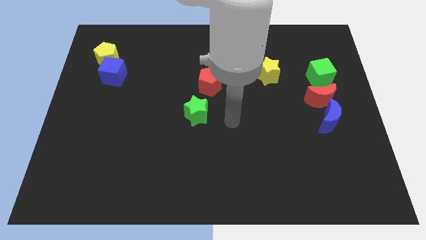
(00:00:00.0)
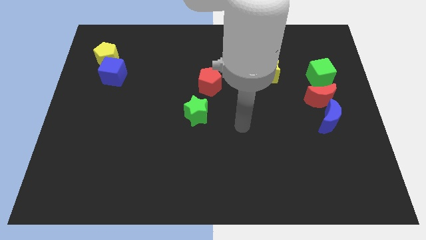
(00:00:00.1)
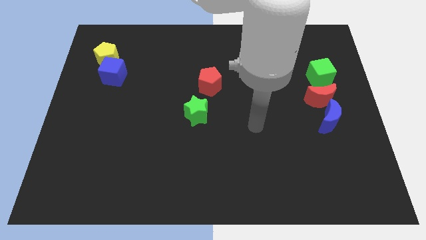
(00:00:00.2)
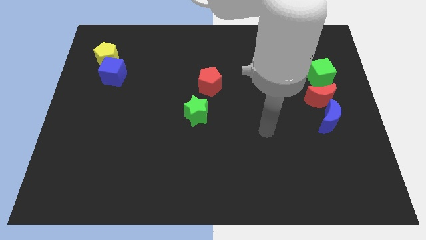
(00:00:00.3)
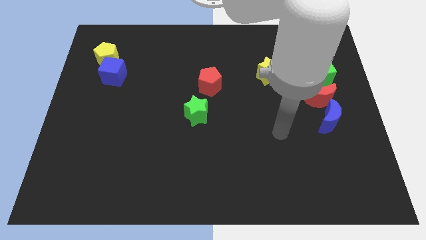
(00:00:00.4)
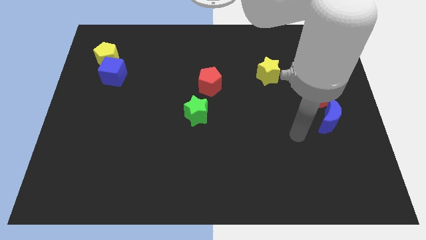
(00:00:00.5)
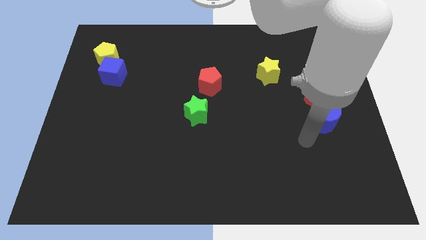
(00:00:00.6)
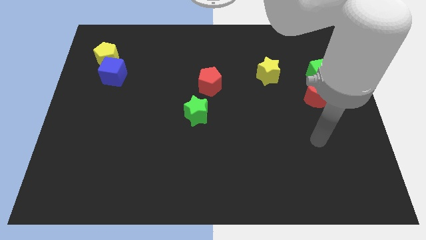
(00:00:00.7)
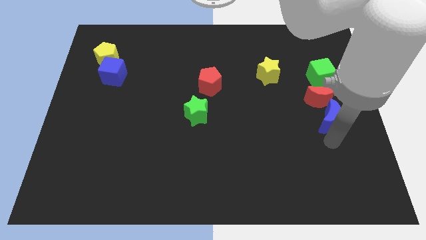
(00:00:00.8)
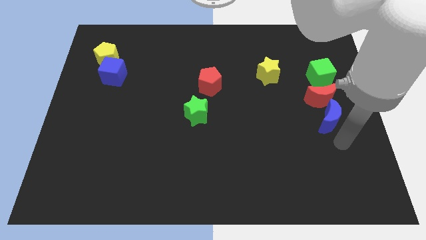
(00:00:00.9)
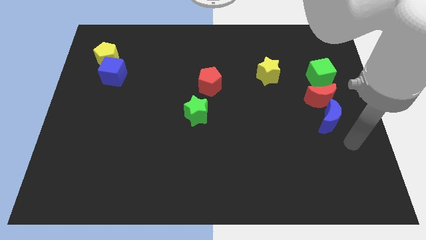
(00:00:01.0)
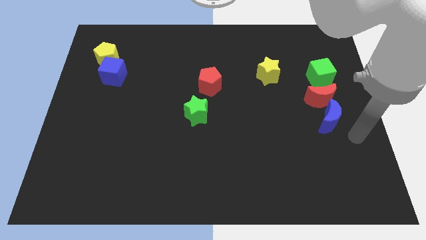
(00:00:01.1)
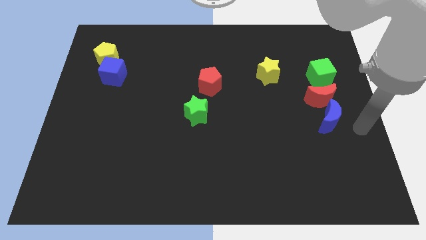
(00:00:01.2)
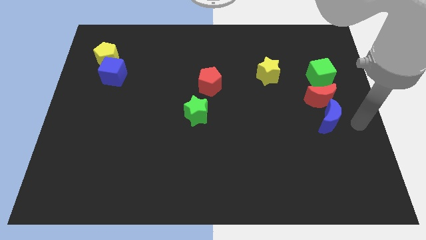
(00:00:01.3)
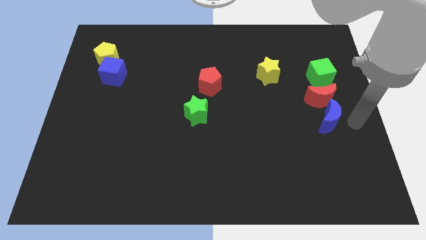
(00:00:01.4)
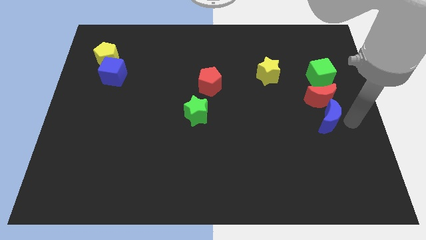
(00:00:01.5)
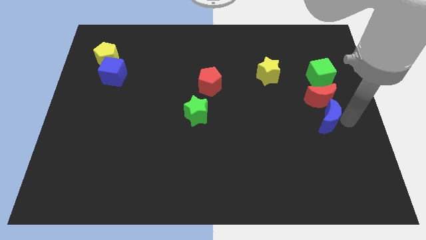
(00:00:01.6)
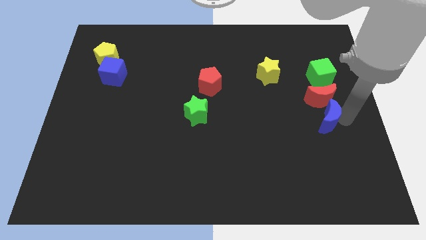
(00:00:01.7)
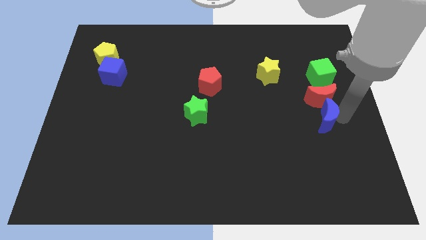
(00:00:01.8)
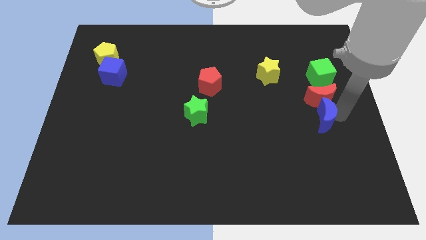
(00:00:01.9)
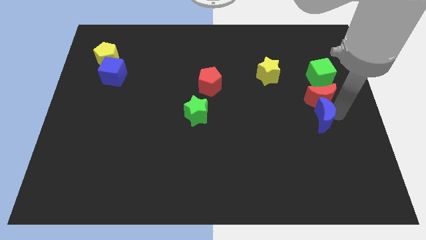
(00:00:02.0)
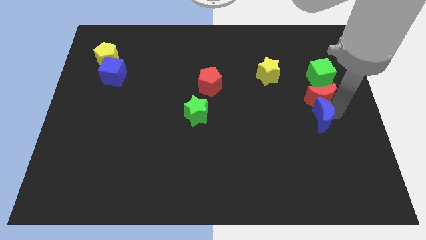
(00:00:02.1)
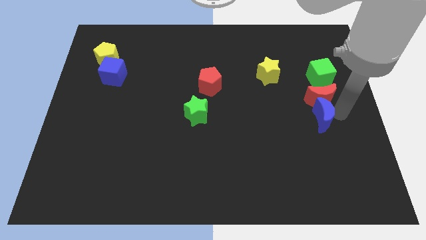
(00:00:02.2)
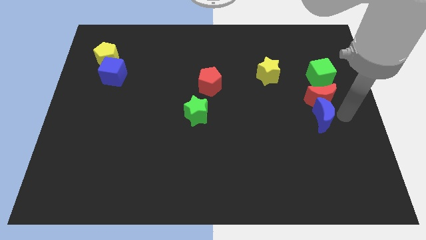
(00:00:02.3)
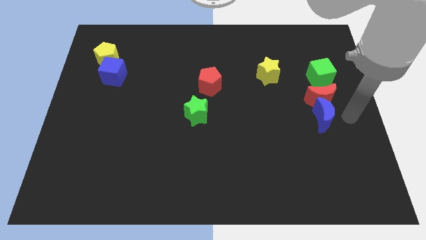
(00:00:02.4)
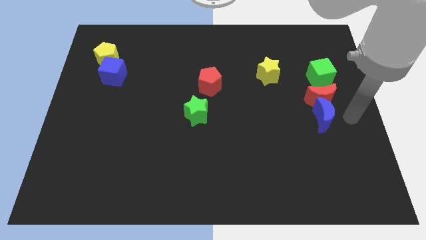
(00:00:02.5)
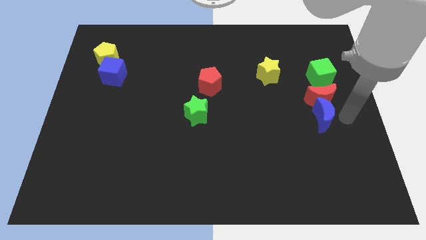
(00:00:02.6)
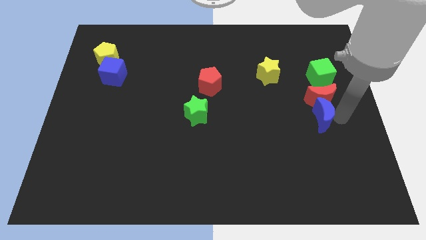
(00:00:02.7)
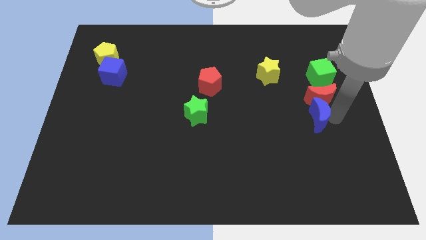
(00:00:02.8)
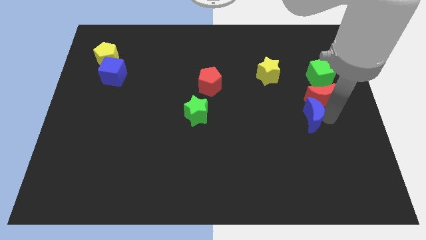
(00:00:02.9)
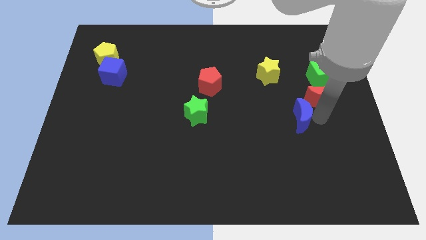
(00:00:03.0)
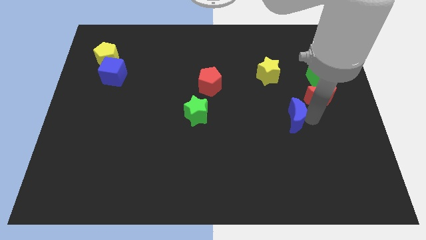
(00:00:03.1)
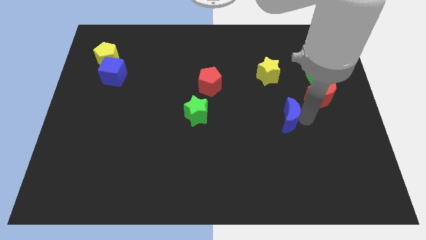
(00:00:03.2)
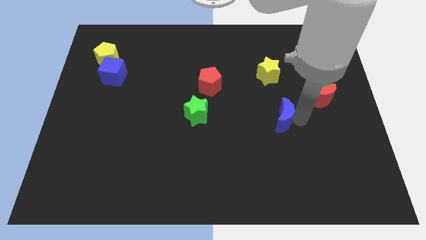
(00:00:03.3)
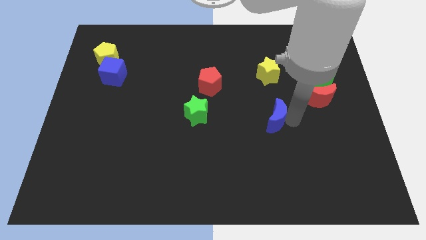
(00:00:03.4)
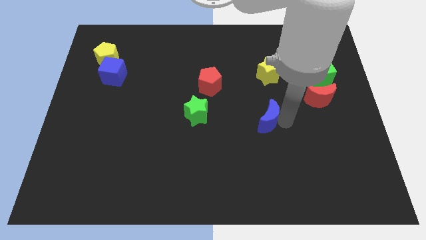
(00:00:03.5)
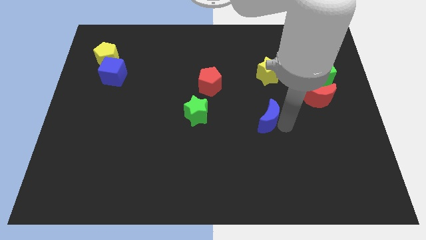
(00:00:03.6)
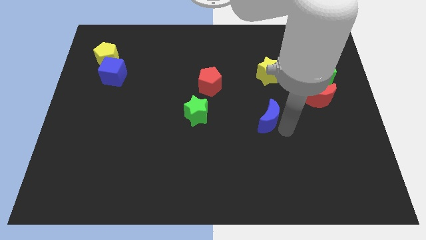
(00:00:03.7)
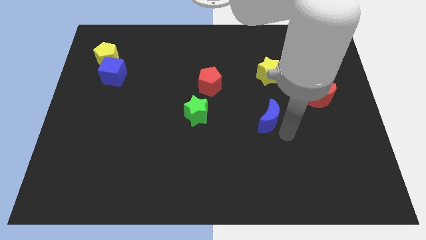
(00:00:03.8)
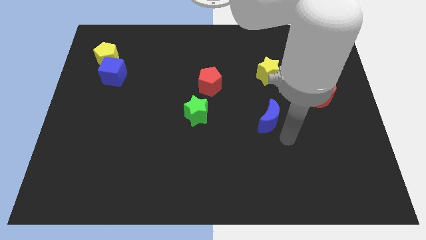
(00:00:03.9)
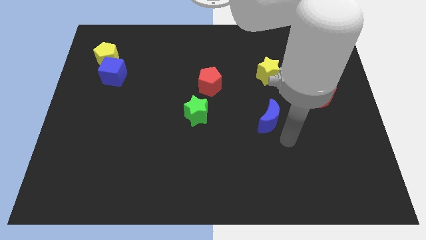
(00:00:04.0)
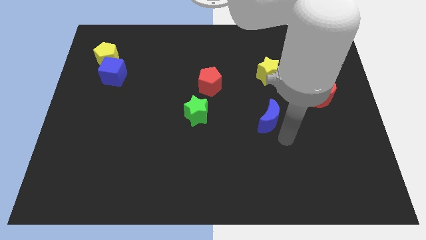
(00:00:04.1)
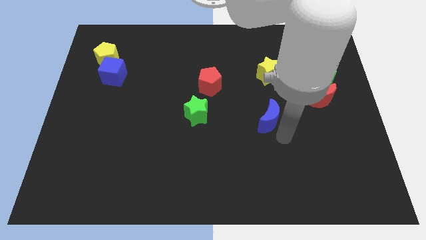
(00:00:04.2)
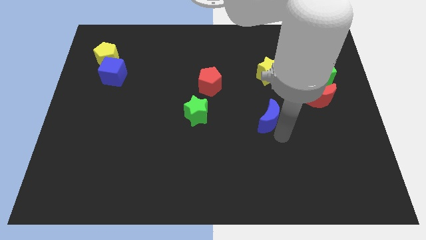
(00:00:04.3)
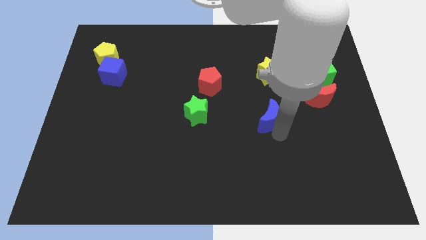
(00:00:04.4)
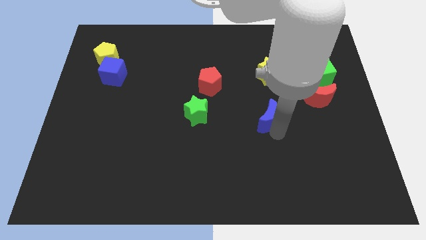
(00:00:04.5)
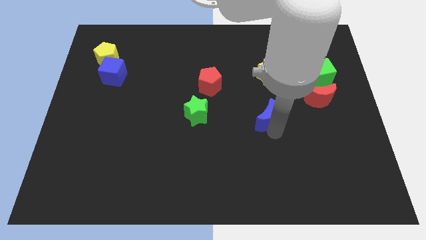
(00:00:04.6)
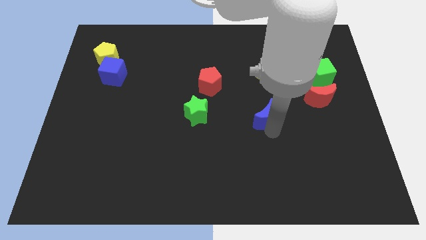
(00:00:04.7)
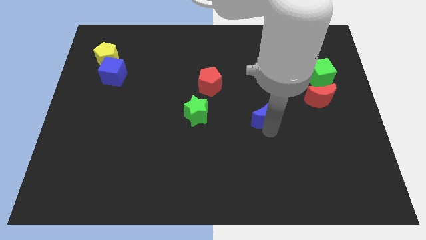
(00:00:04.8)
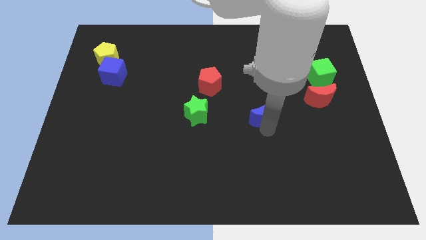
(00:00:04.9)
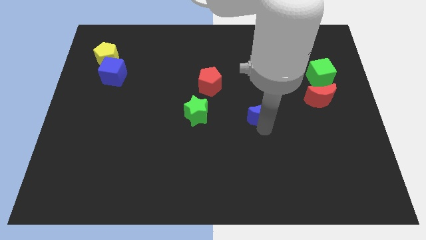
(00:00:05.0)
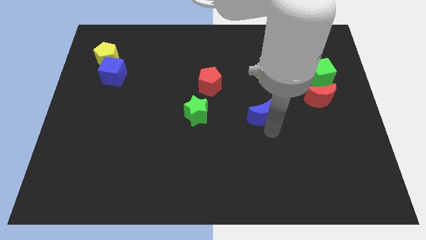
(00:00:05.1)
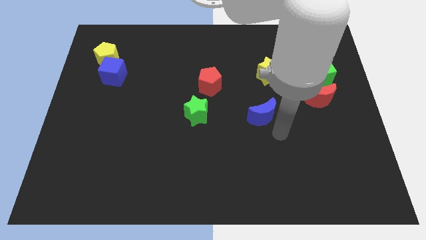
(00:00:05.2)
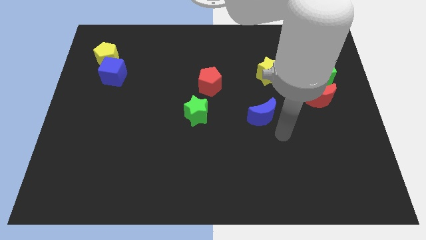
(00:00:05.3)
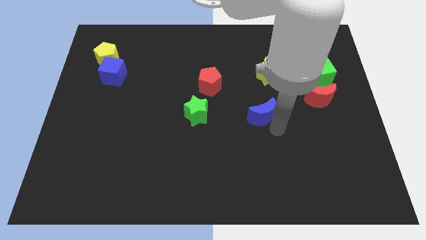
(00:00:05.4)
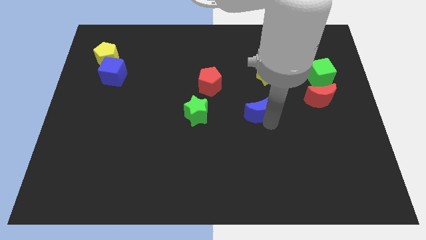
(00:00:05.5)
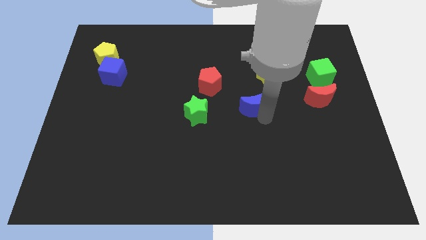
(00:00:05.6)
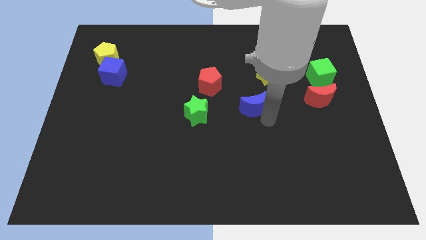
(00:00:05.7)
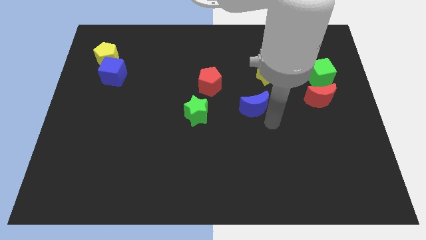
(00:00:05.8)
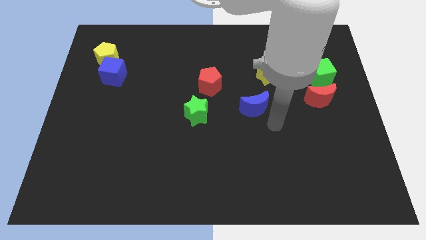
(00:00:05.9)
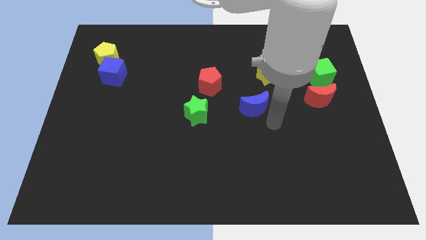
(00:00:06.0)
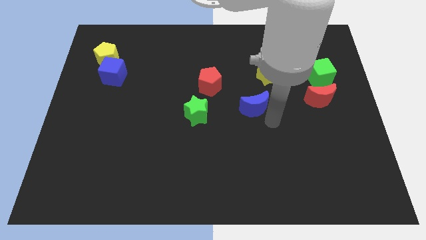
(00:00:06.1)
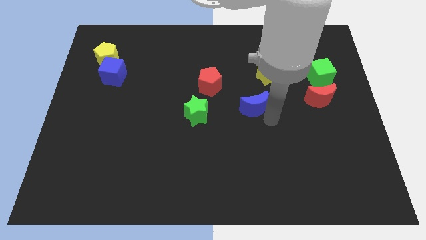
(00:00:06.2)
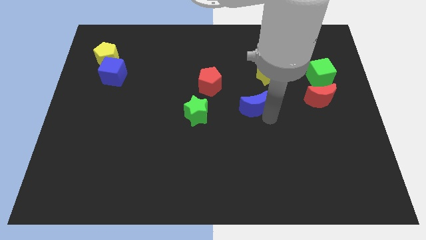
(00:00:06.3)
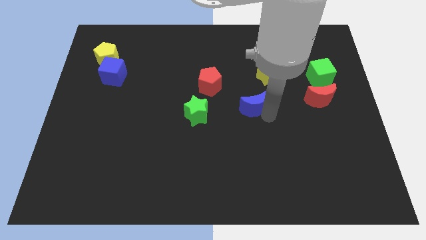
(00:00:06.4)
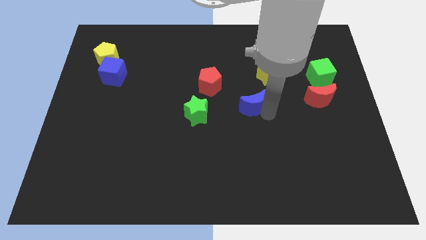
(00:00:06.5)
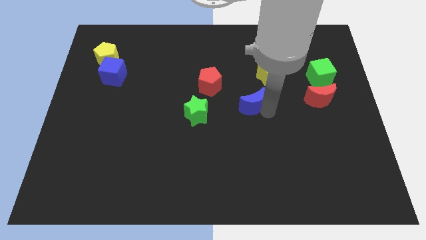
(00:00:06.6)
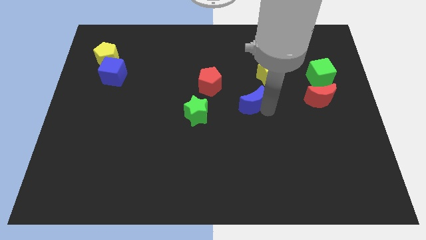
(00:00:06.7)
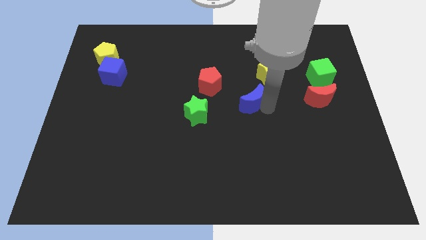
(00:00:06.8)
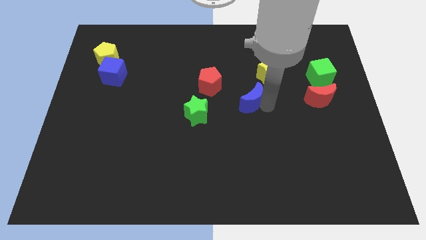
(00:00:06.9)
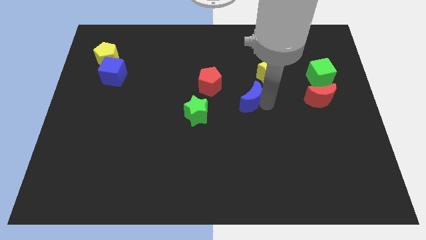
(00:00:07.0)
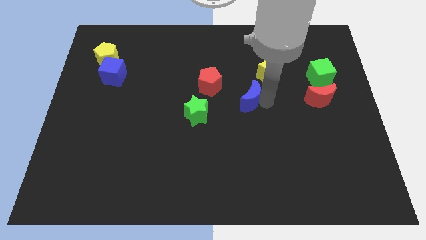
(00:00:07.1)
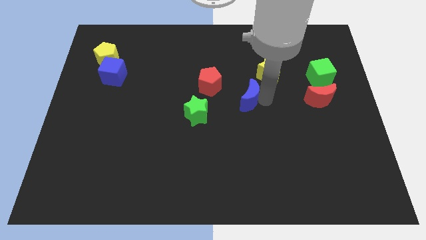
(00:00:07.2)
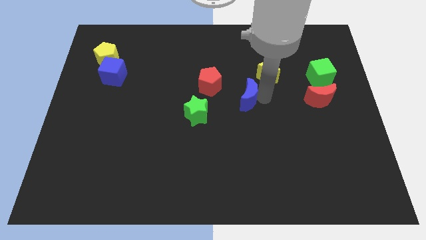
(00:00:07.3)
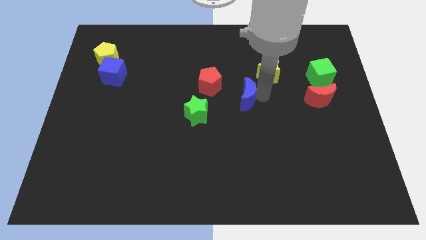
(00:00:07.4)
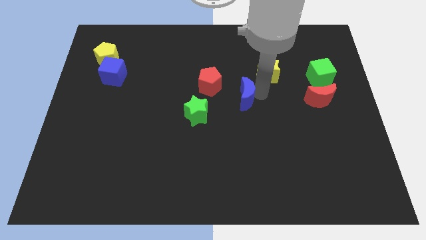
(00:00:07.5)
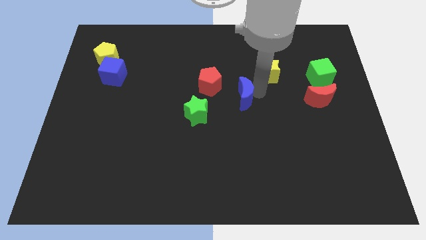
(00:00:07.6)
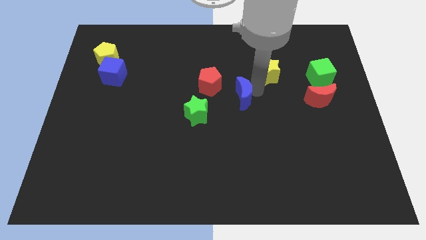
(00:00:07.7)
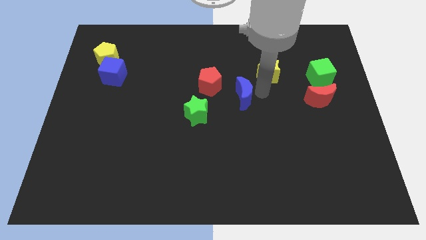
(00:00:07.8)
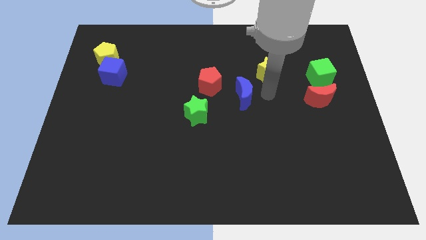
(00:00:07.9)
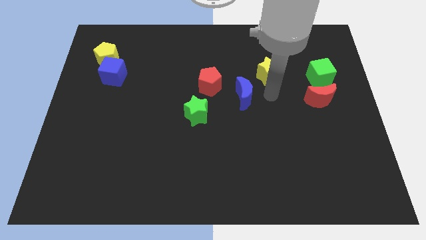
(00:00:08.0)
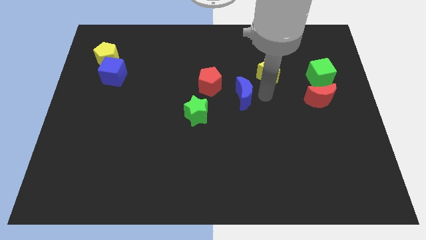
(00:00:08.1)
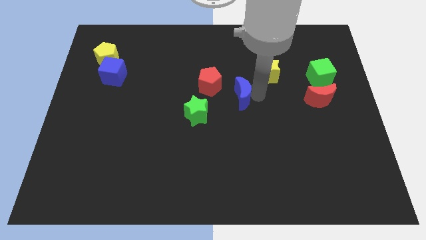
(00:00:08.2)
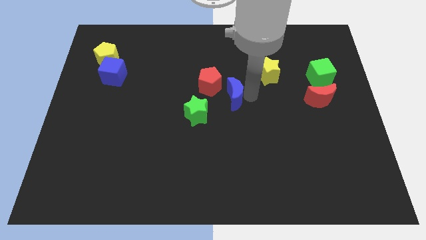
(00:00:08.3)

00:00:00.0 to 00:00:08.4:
slide the blue moon diagonally up and to the right of the green star
